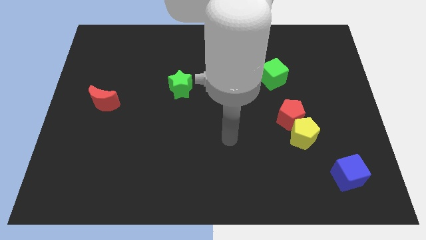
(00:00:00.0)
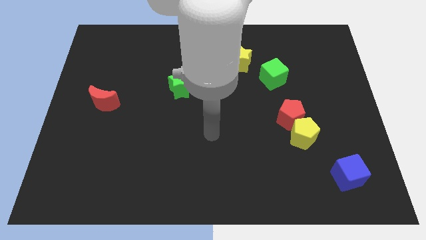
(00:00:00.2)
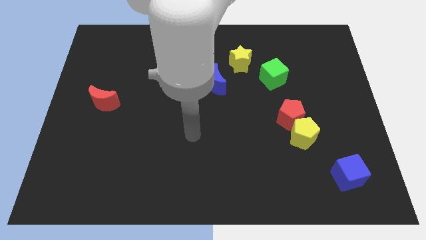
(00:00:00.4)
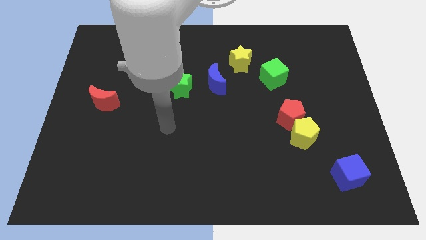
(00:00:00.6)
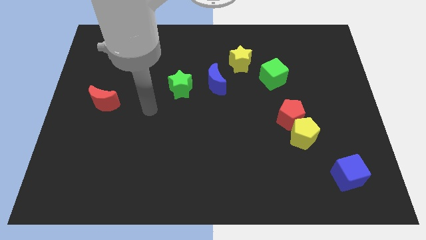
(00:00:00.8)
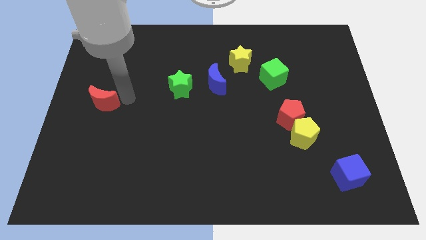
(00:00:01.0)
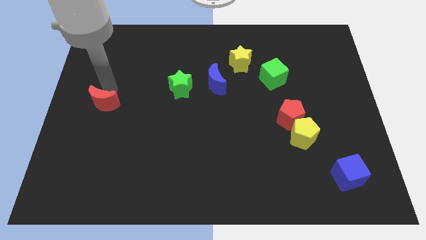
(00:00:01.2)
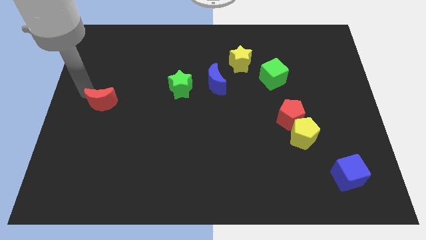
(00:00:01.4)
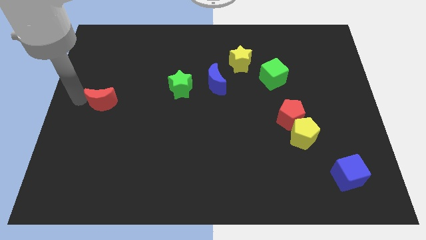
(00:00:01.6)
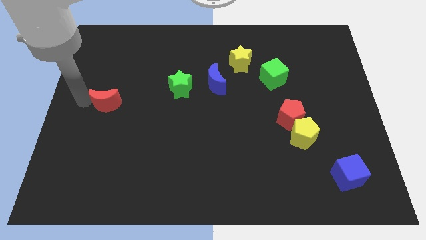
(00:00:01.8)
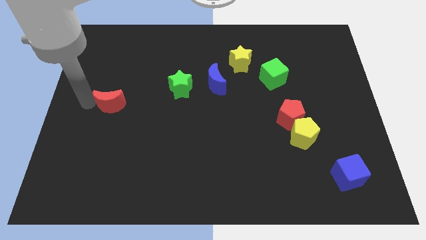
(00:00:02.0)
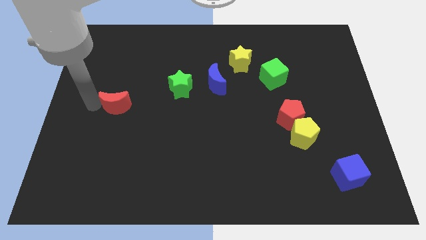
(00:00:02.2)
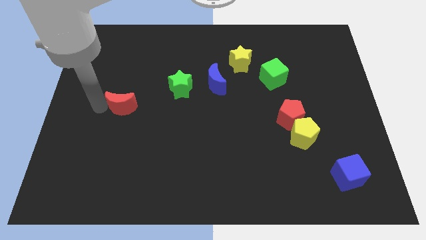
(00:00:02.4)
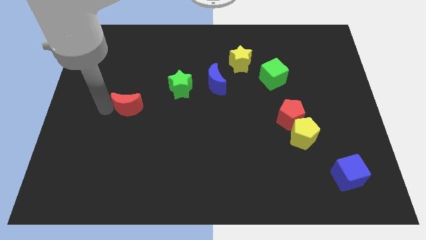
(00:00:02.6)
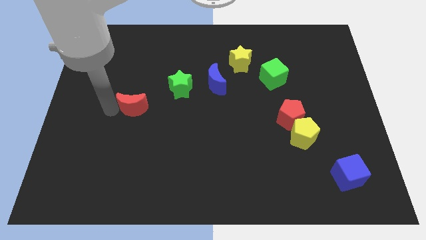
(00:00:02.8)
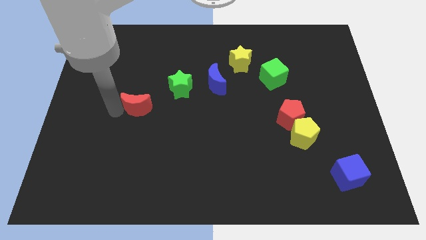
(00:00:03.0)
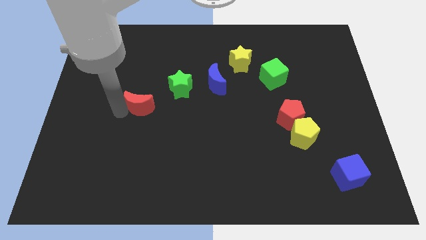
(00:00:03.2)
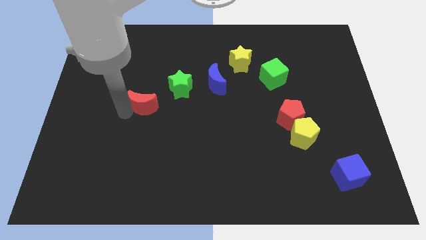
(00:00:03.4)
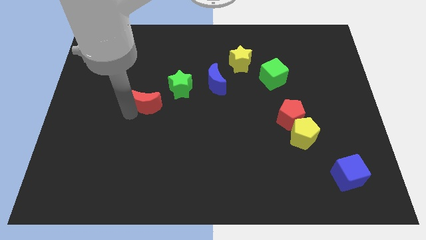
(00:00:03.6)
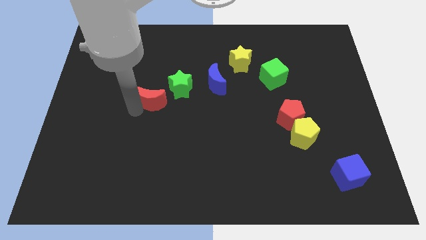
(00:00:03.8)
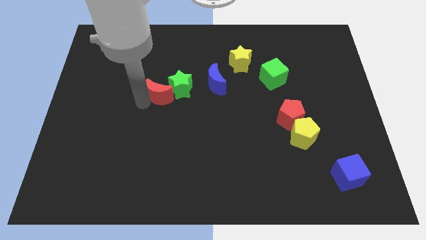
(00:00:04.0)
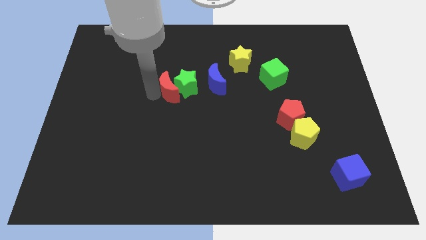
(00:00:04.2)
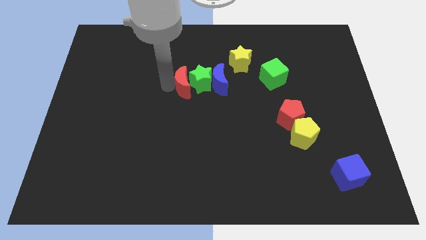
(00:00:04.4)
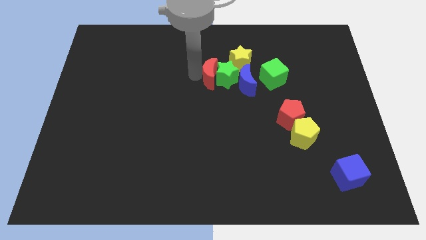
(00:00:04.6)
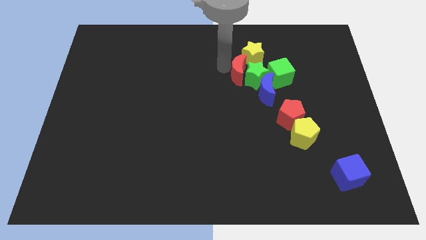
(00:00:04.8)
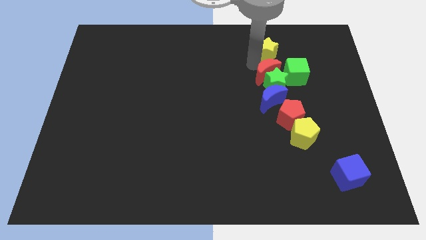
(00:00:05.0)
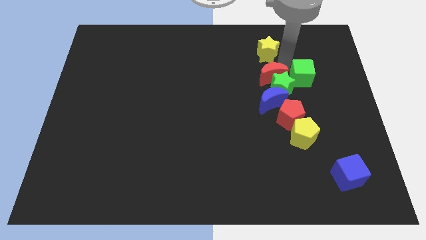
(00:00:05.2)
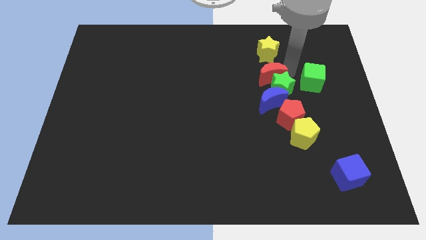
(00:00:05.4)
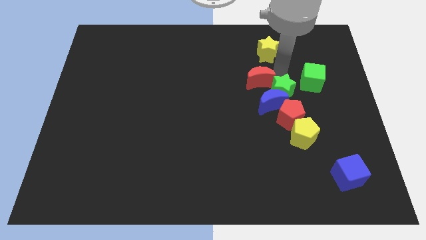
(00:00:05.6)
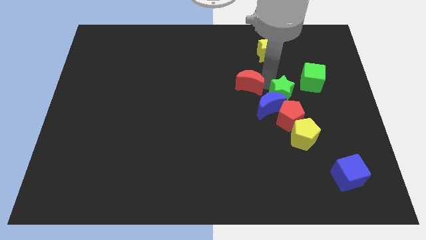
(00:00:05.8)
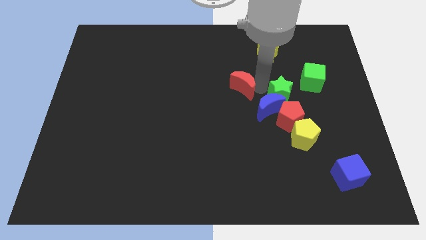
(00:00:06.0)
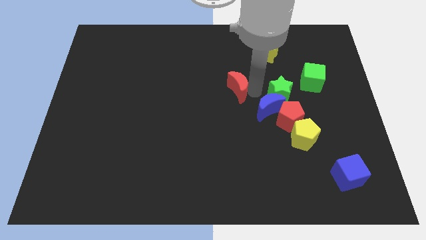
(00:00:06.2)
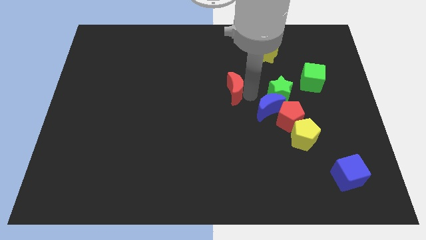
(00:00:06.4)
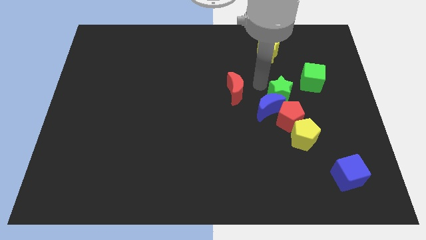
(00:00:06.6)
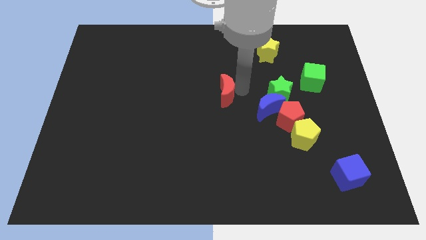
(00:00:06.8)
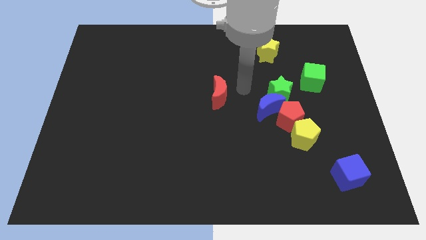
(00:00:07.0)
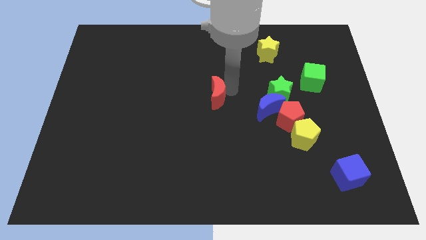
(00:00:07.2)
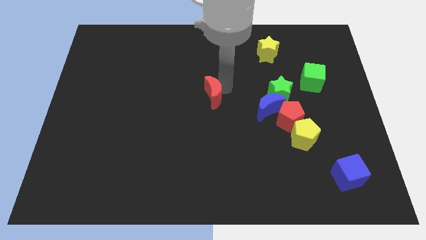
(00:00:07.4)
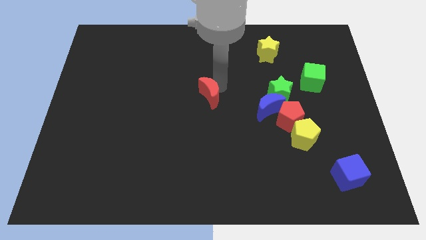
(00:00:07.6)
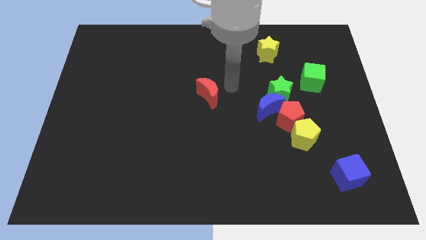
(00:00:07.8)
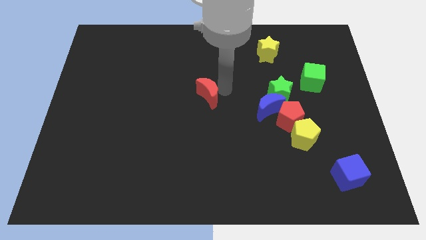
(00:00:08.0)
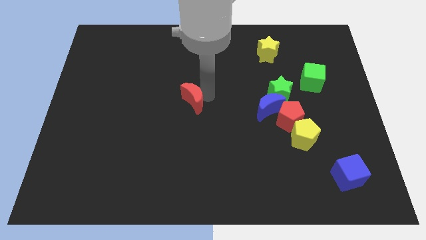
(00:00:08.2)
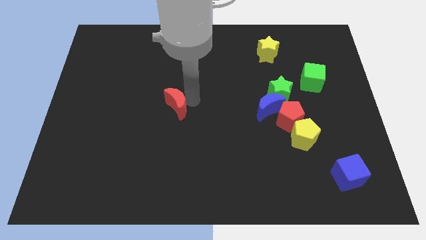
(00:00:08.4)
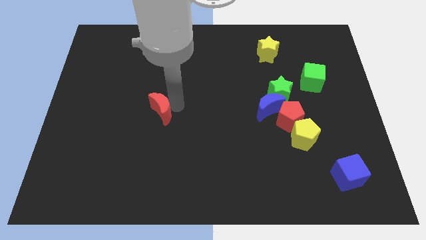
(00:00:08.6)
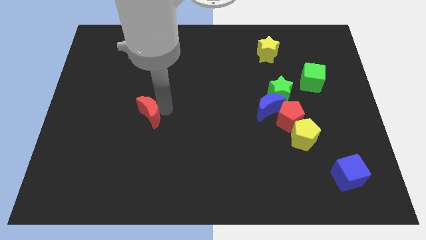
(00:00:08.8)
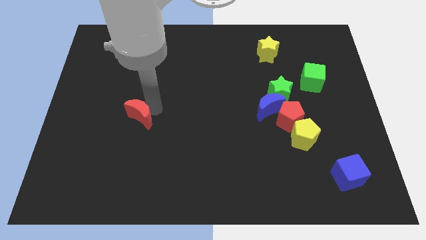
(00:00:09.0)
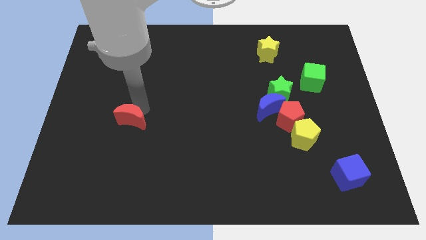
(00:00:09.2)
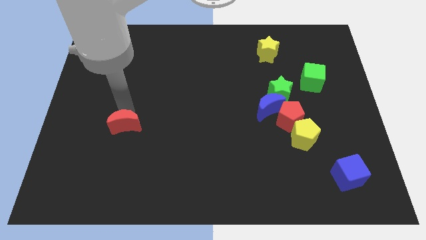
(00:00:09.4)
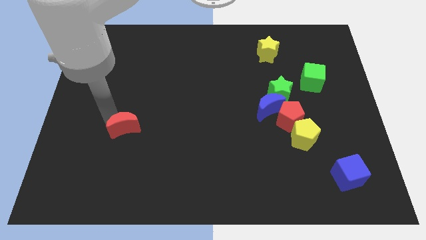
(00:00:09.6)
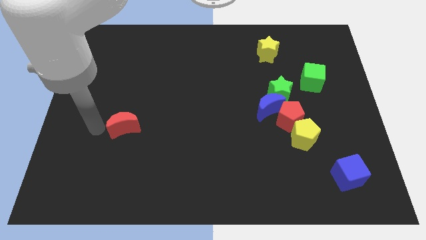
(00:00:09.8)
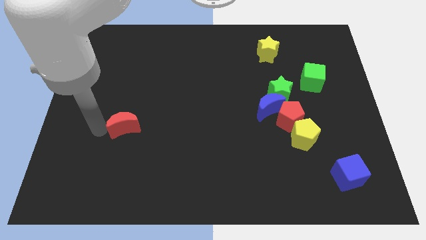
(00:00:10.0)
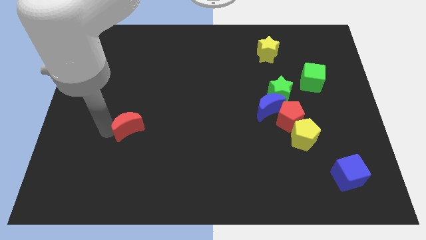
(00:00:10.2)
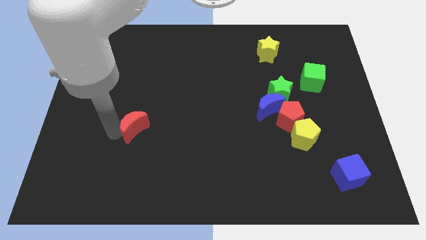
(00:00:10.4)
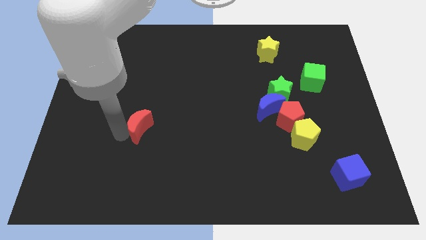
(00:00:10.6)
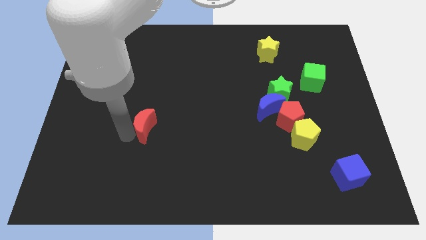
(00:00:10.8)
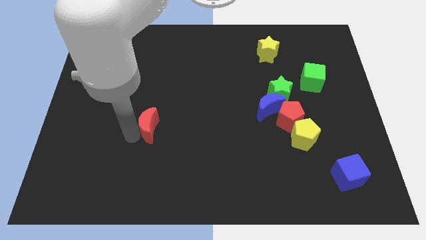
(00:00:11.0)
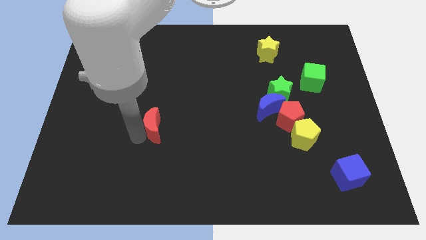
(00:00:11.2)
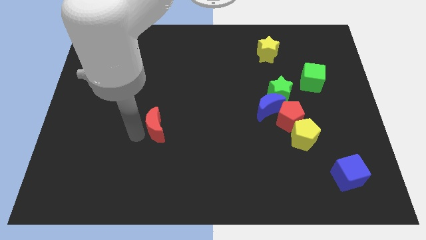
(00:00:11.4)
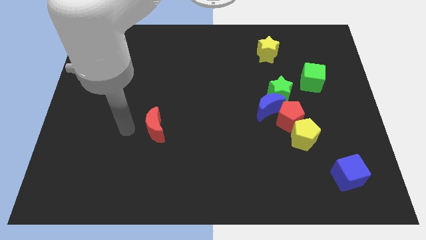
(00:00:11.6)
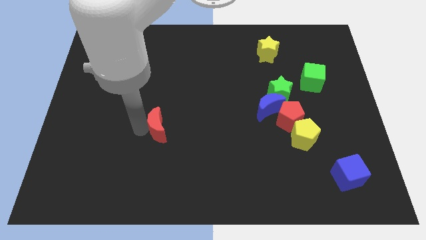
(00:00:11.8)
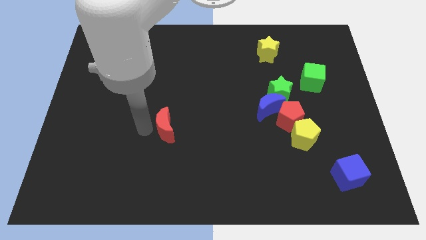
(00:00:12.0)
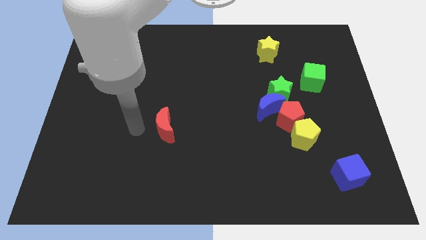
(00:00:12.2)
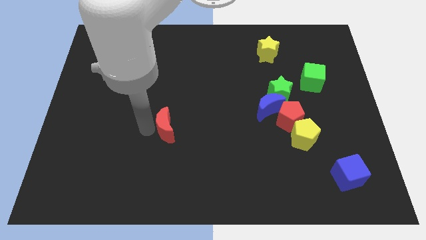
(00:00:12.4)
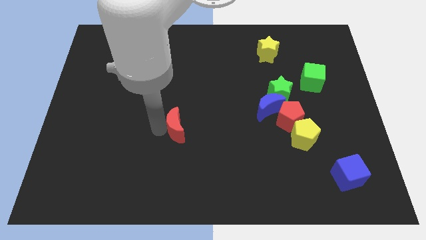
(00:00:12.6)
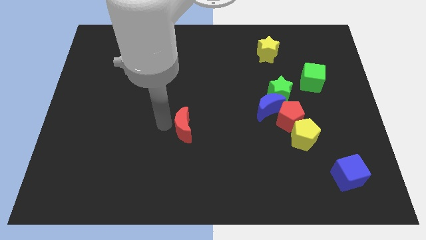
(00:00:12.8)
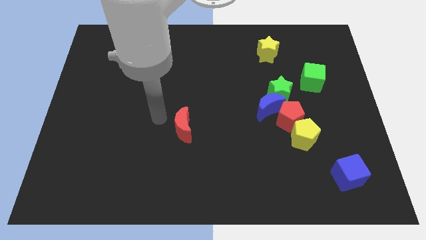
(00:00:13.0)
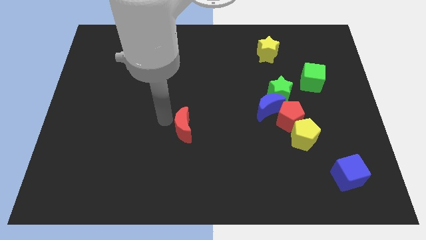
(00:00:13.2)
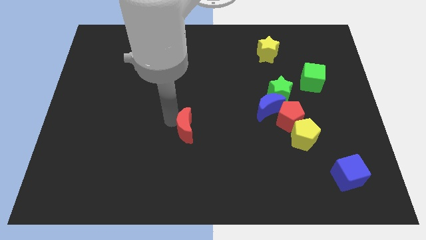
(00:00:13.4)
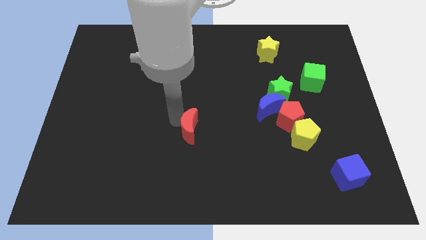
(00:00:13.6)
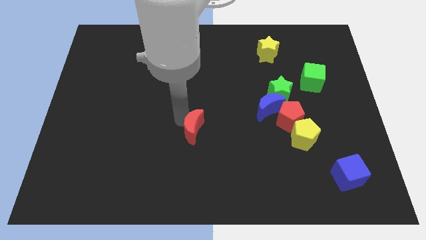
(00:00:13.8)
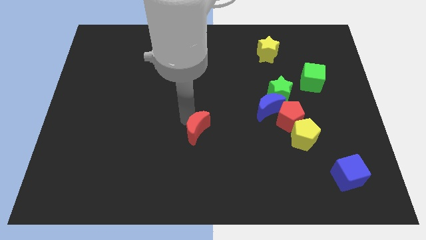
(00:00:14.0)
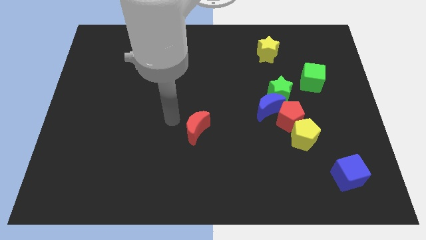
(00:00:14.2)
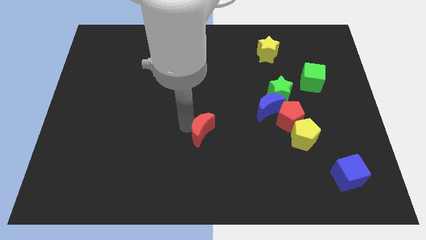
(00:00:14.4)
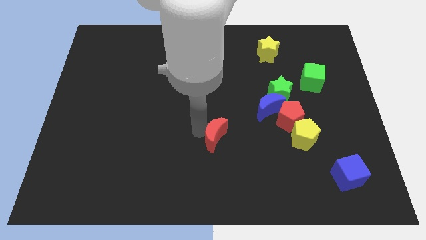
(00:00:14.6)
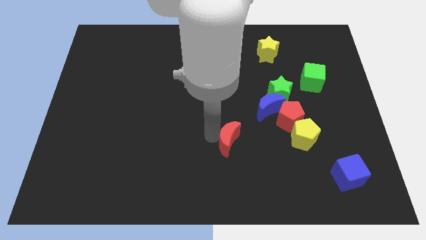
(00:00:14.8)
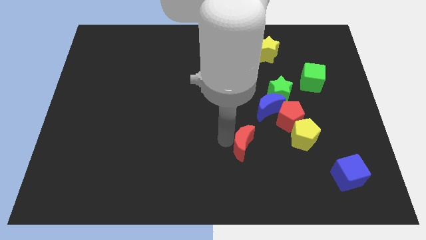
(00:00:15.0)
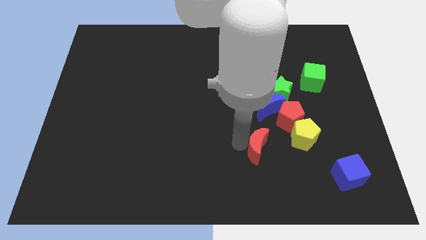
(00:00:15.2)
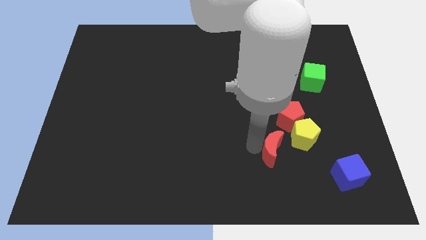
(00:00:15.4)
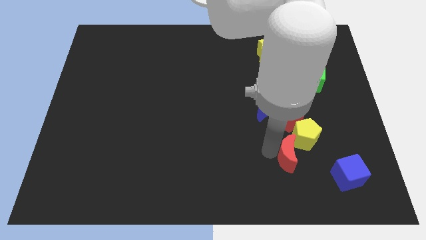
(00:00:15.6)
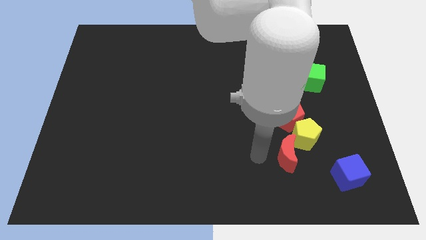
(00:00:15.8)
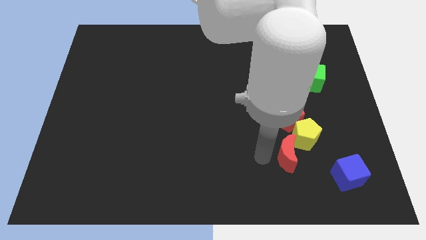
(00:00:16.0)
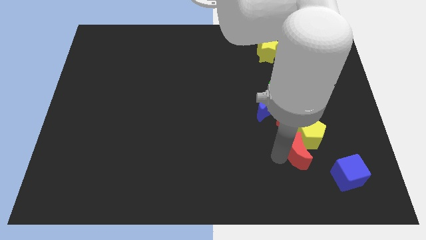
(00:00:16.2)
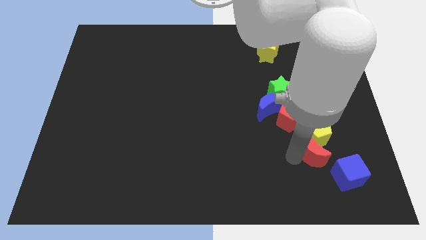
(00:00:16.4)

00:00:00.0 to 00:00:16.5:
move the red moon diagonally down and to the right of the red pentagon
